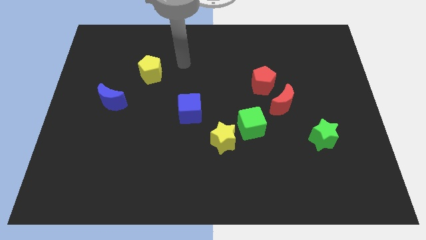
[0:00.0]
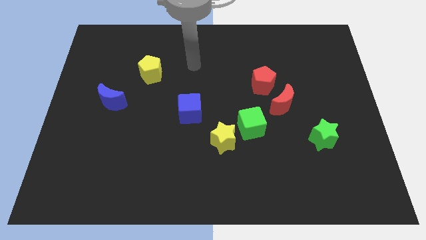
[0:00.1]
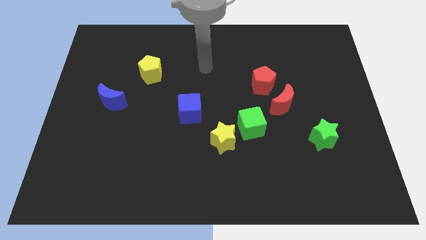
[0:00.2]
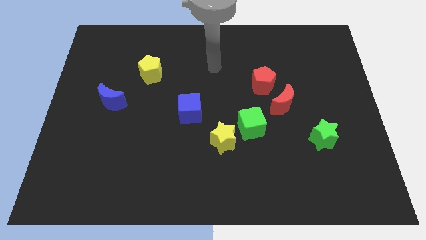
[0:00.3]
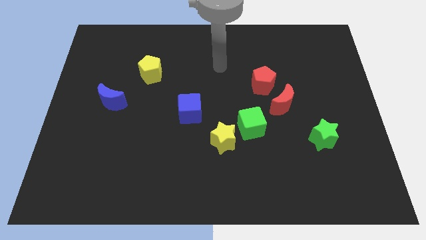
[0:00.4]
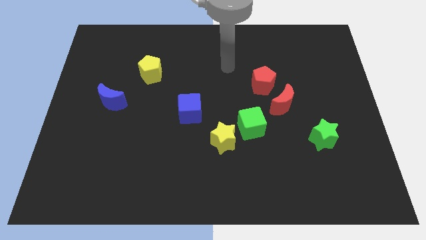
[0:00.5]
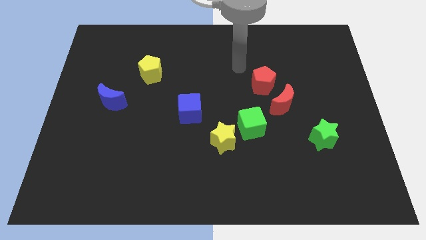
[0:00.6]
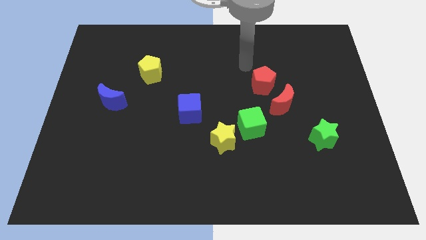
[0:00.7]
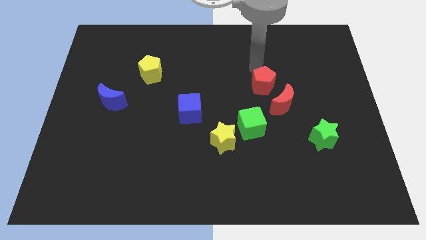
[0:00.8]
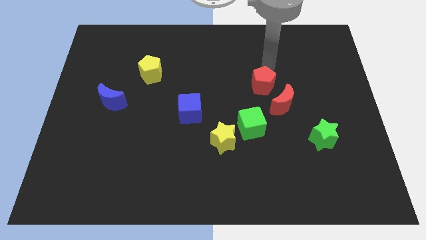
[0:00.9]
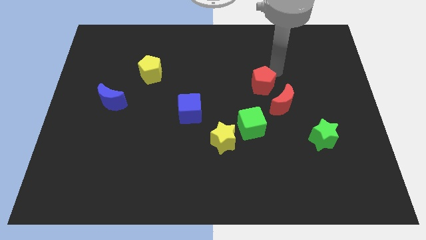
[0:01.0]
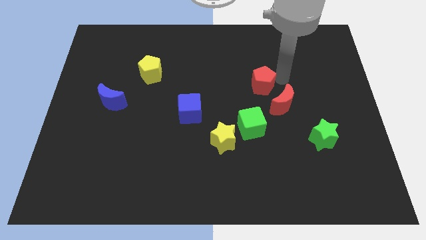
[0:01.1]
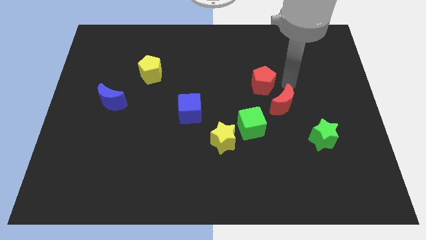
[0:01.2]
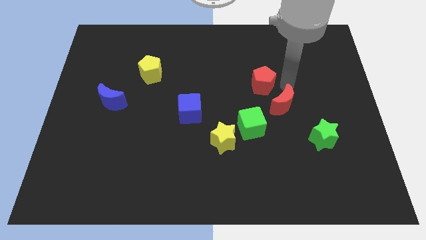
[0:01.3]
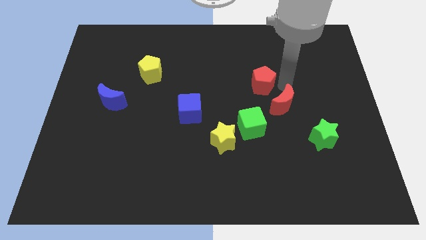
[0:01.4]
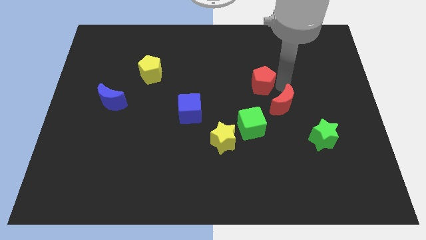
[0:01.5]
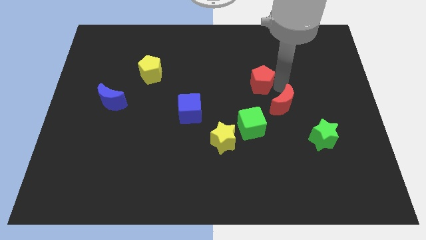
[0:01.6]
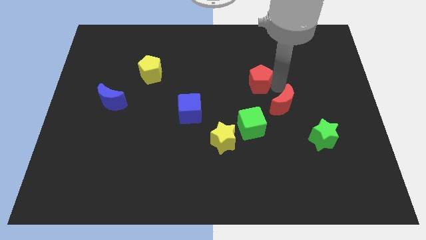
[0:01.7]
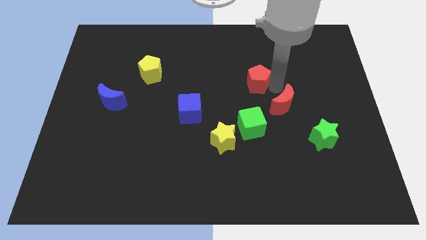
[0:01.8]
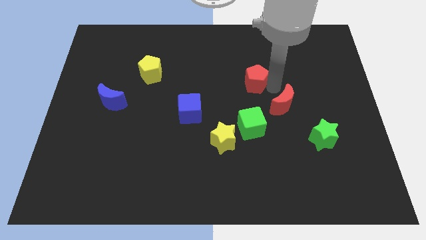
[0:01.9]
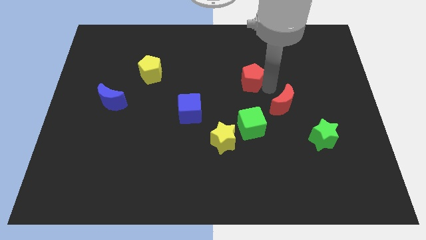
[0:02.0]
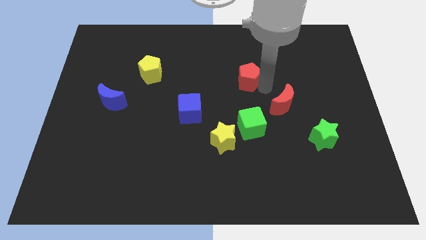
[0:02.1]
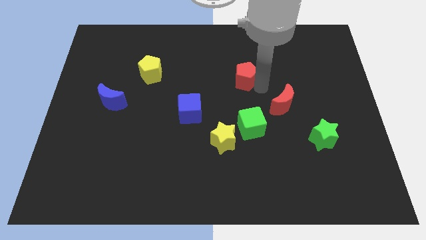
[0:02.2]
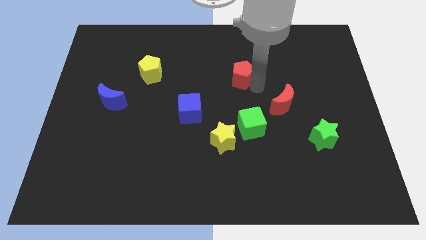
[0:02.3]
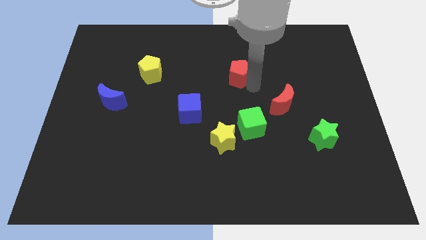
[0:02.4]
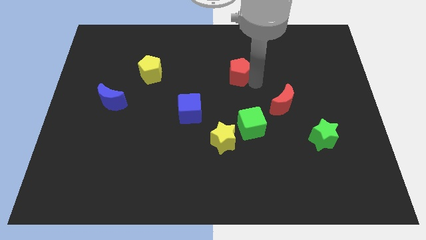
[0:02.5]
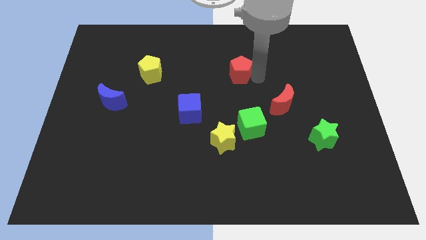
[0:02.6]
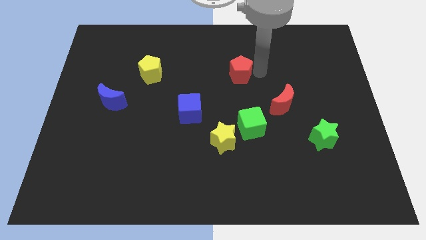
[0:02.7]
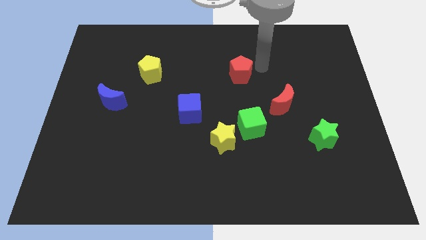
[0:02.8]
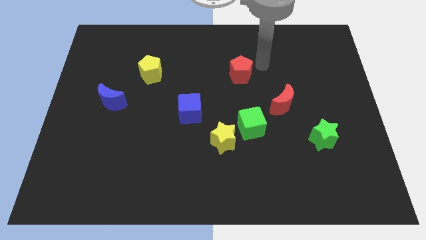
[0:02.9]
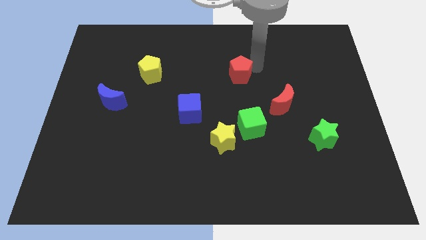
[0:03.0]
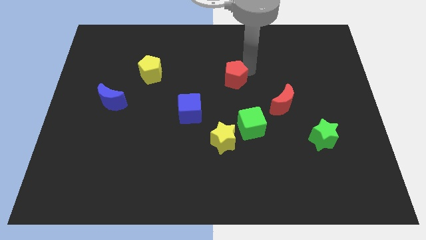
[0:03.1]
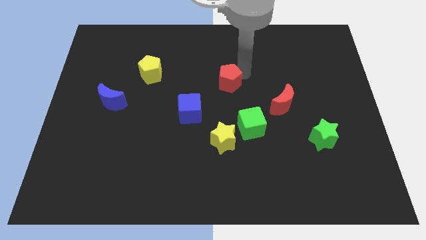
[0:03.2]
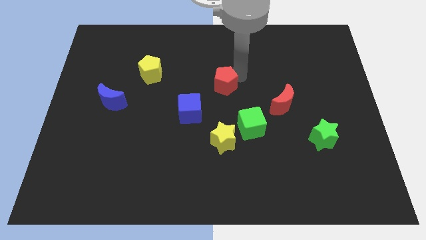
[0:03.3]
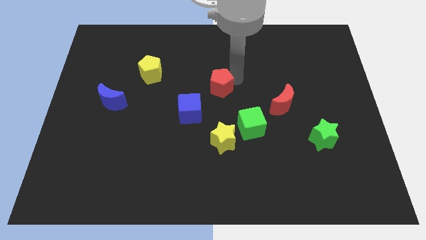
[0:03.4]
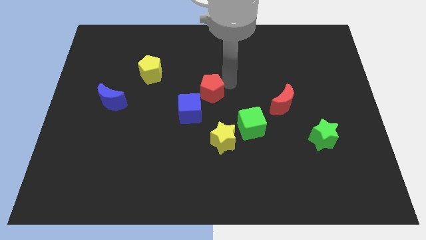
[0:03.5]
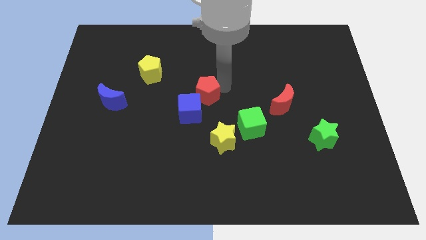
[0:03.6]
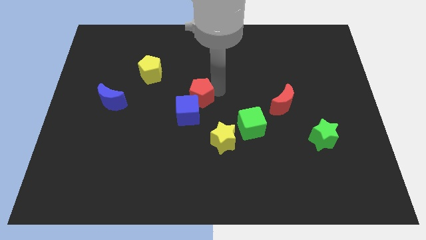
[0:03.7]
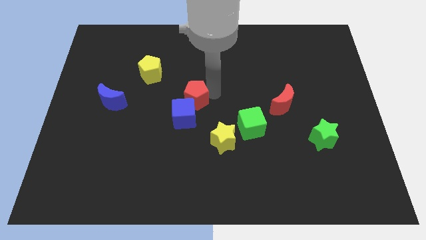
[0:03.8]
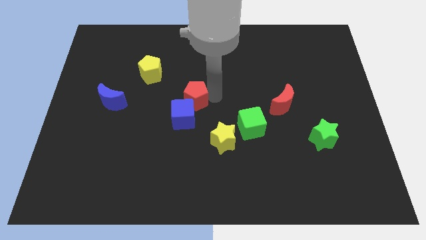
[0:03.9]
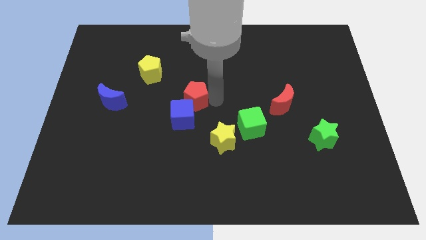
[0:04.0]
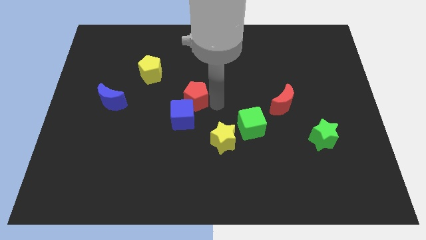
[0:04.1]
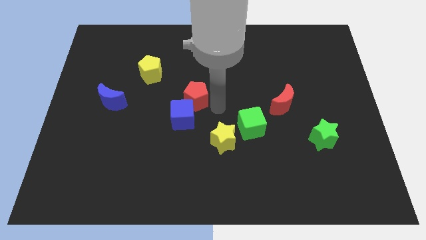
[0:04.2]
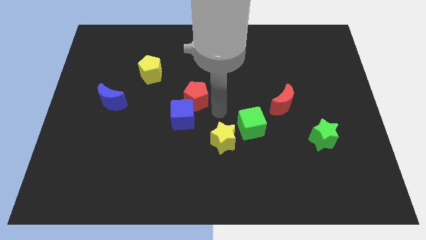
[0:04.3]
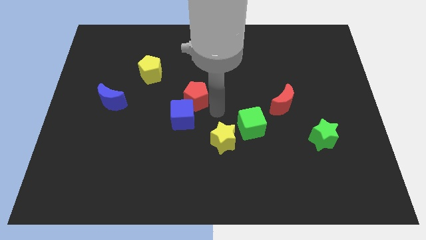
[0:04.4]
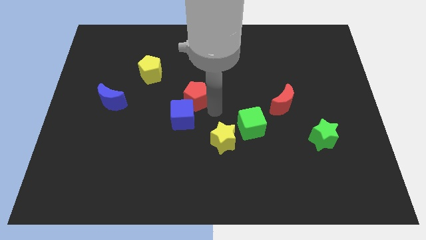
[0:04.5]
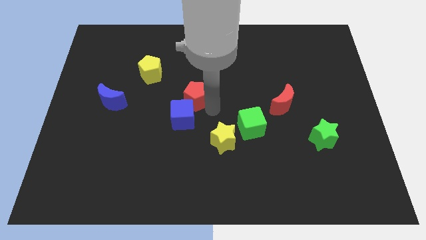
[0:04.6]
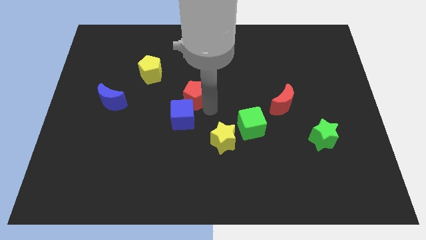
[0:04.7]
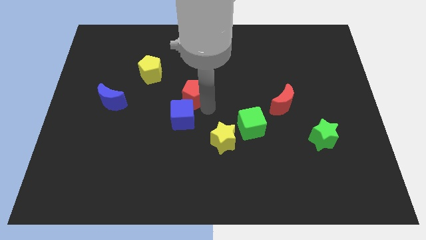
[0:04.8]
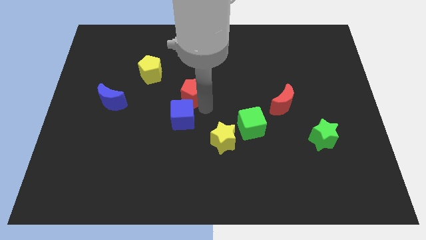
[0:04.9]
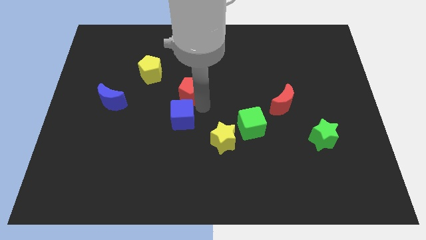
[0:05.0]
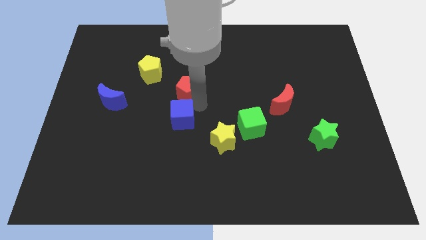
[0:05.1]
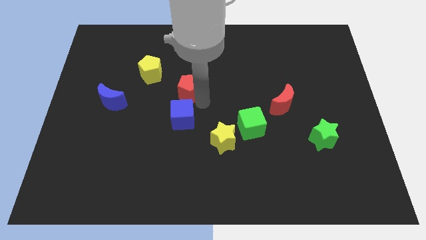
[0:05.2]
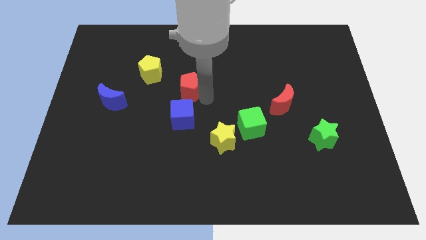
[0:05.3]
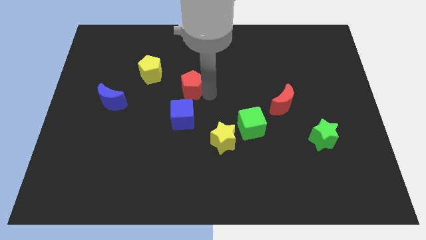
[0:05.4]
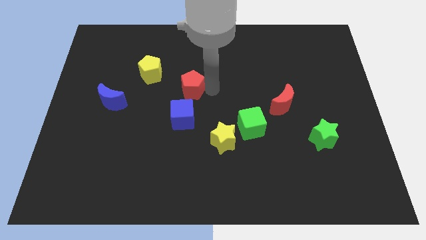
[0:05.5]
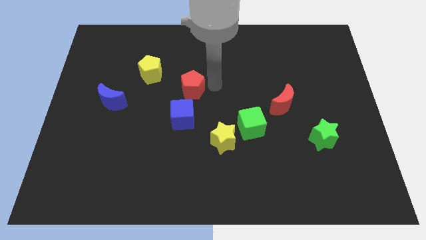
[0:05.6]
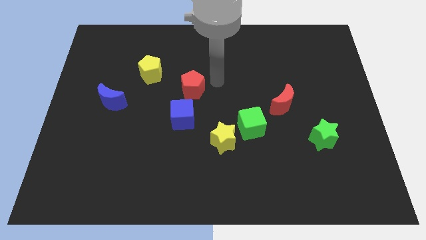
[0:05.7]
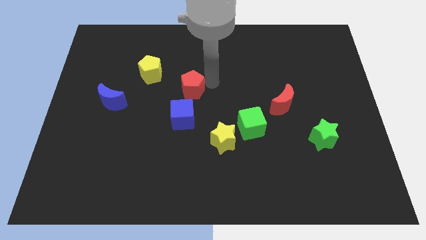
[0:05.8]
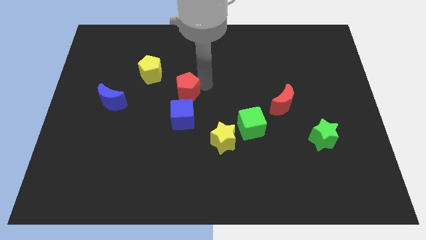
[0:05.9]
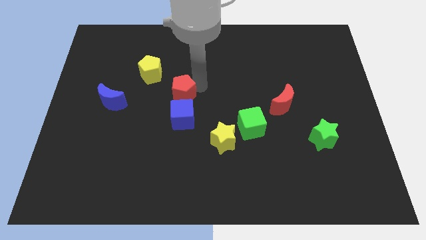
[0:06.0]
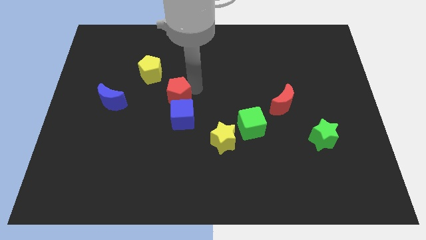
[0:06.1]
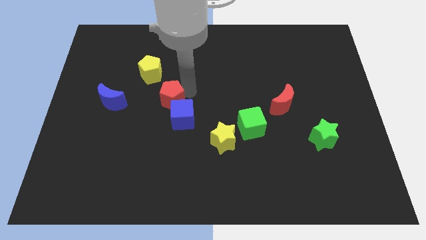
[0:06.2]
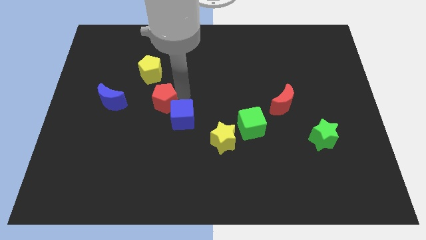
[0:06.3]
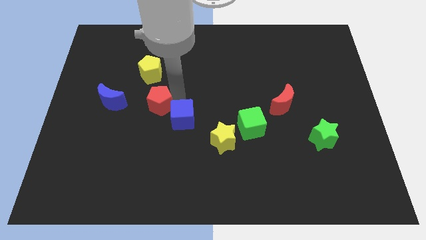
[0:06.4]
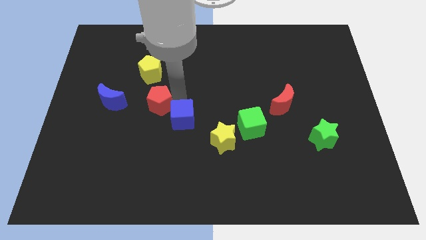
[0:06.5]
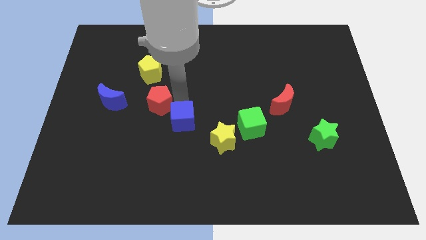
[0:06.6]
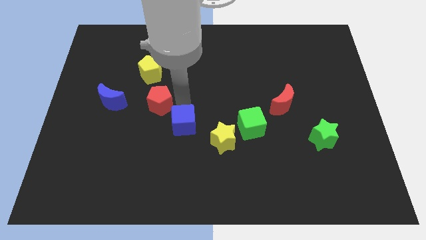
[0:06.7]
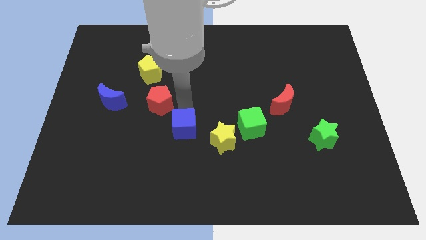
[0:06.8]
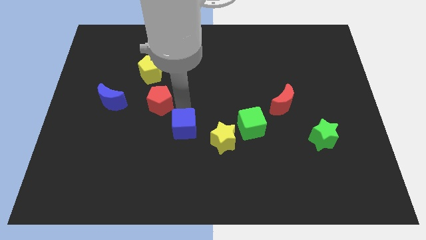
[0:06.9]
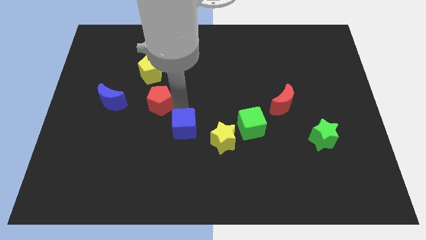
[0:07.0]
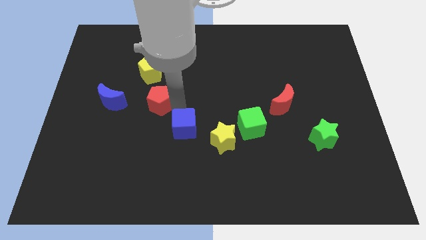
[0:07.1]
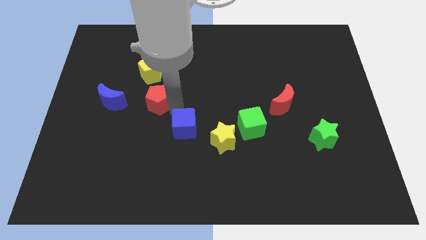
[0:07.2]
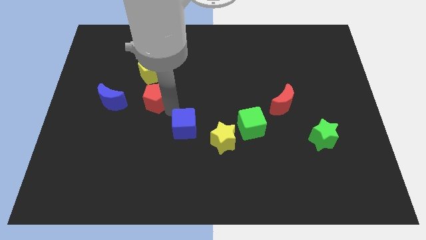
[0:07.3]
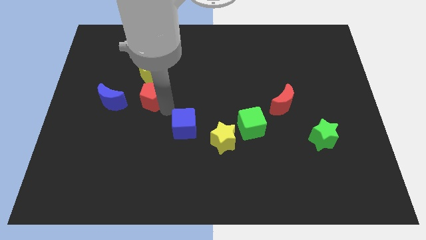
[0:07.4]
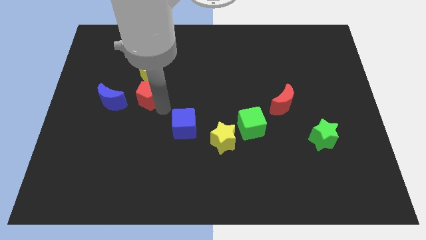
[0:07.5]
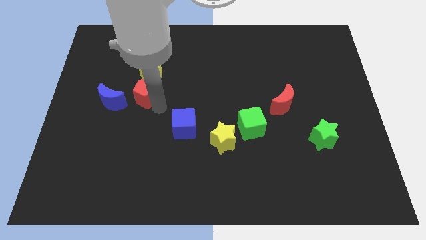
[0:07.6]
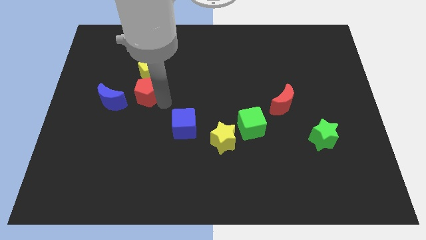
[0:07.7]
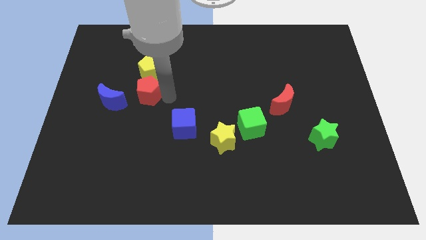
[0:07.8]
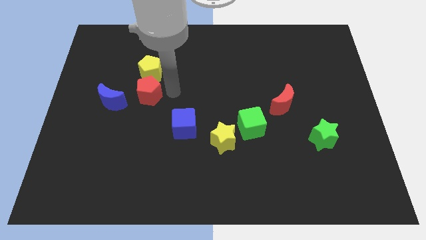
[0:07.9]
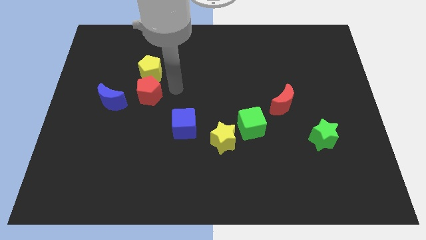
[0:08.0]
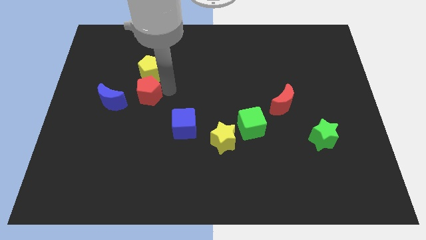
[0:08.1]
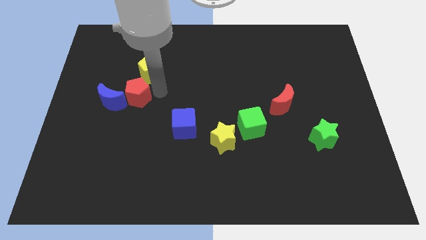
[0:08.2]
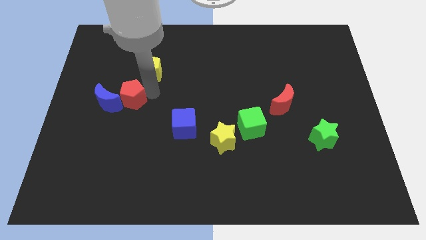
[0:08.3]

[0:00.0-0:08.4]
slide the red pentagon to the blue moon
